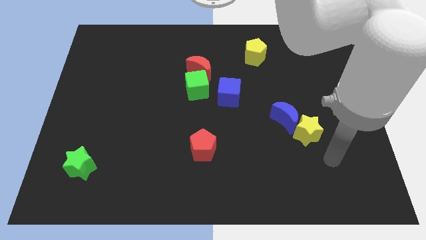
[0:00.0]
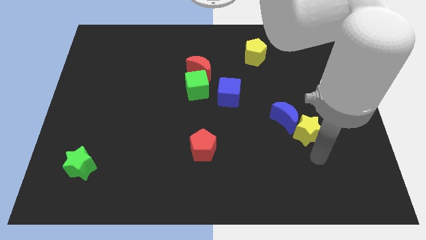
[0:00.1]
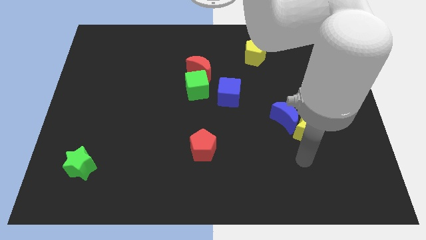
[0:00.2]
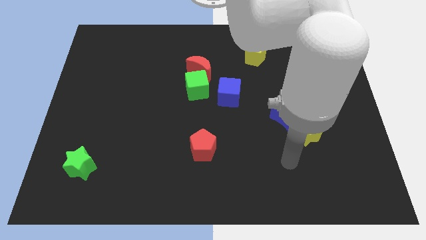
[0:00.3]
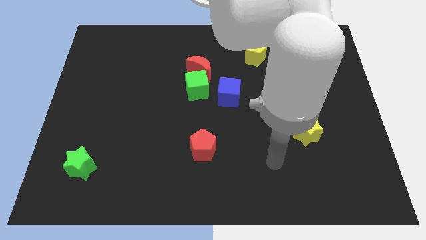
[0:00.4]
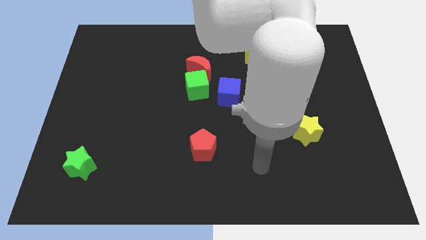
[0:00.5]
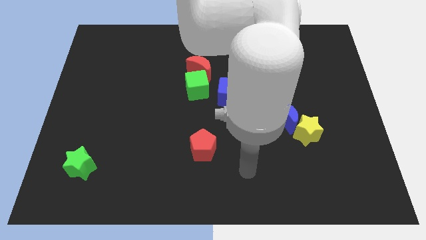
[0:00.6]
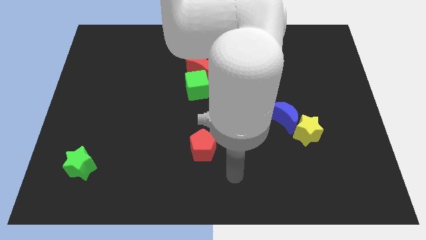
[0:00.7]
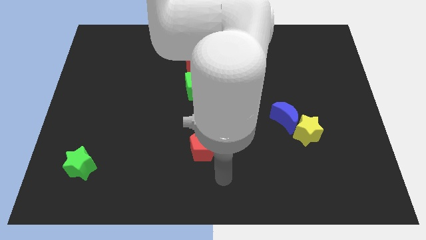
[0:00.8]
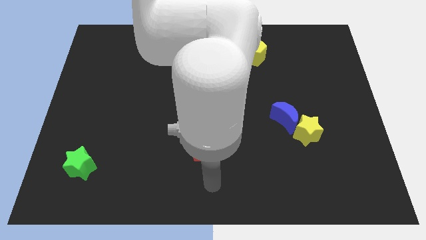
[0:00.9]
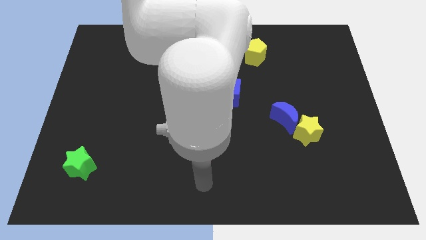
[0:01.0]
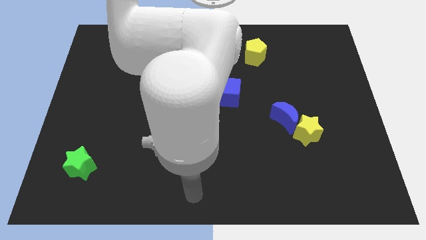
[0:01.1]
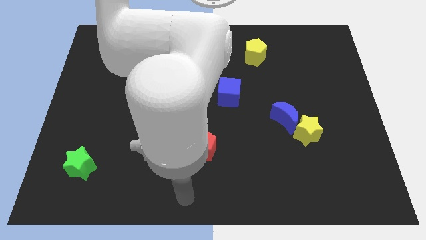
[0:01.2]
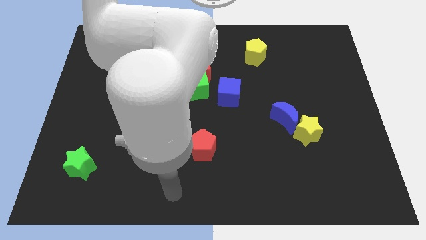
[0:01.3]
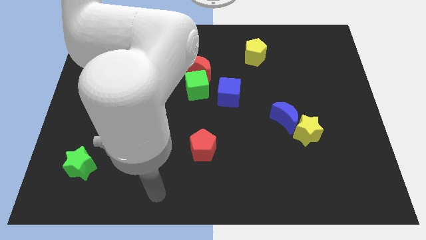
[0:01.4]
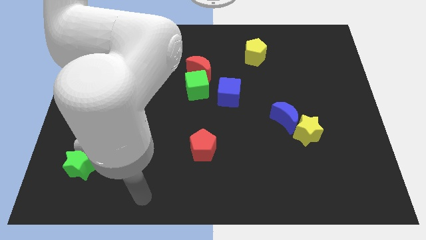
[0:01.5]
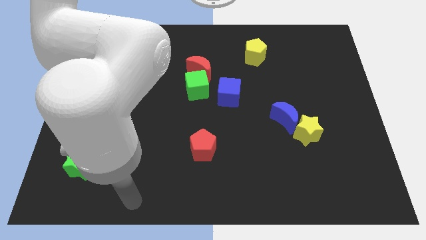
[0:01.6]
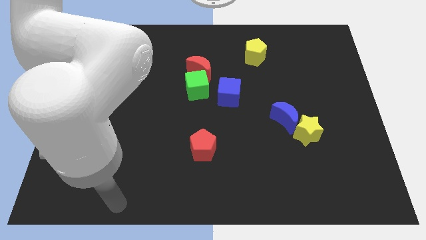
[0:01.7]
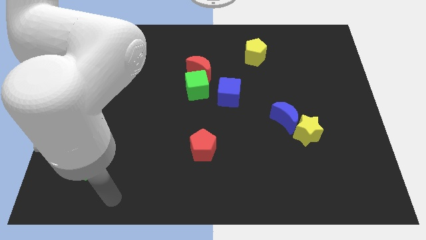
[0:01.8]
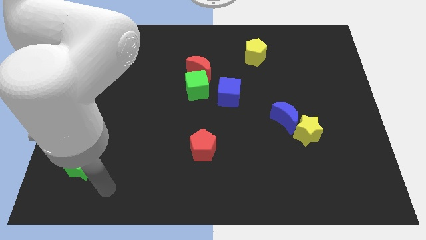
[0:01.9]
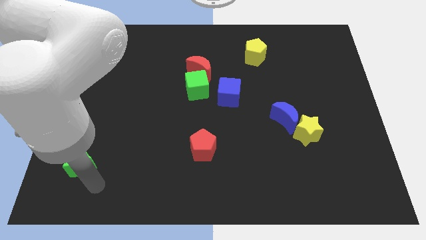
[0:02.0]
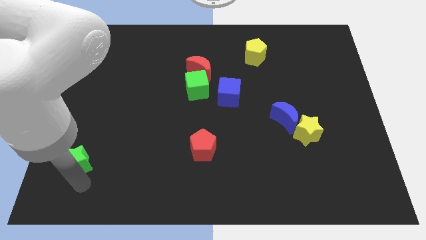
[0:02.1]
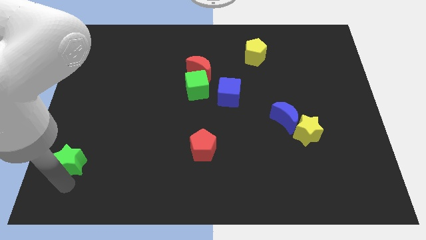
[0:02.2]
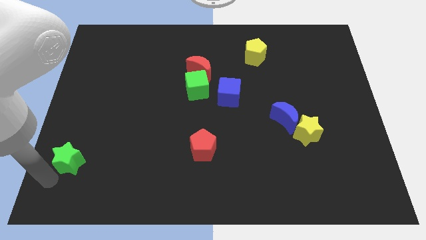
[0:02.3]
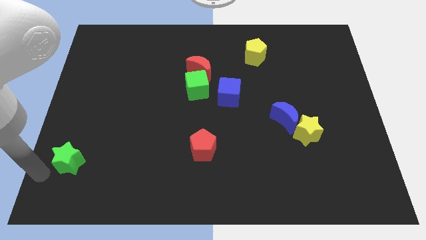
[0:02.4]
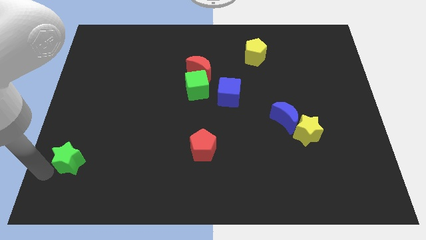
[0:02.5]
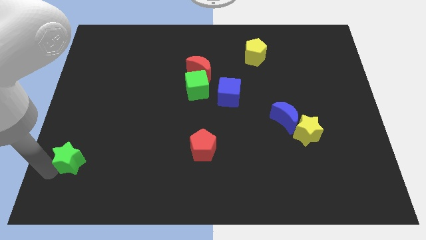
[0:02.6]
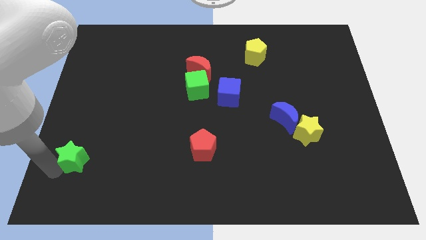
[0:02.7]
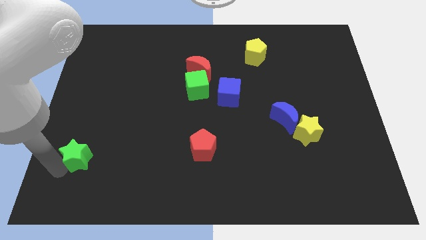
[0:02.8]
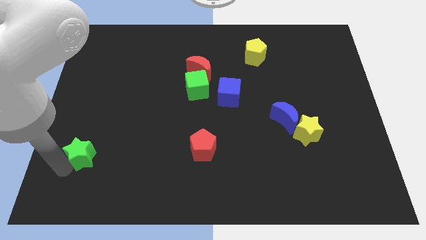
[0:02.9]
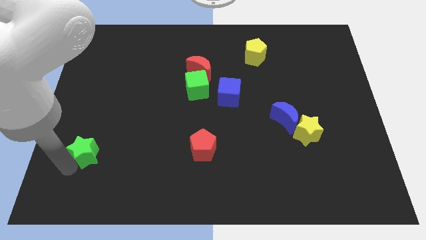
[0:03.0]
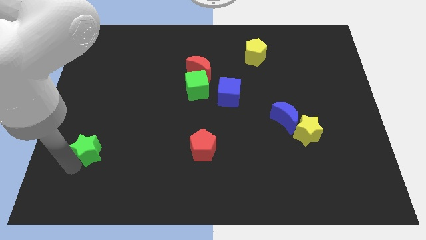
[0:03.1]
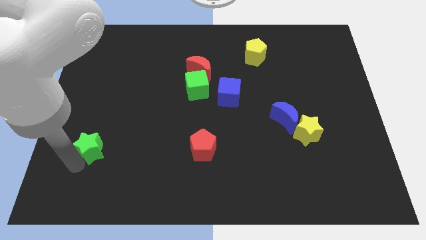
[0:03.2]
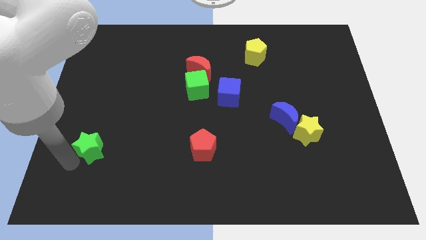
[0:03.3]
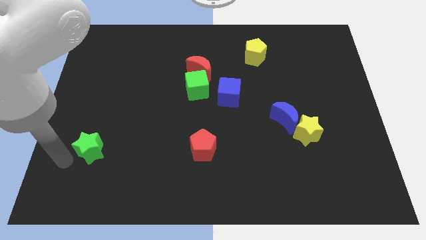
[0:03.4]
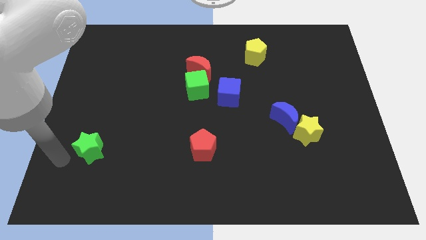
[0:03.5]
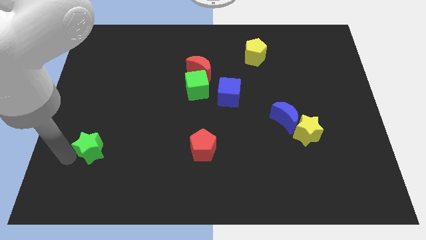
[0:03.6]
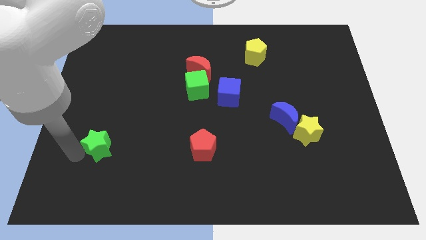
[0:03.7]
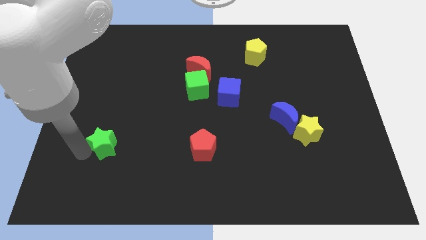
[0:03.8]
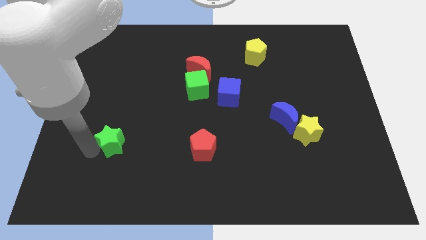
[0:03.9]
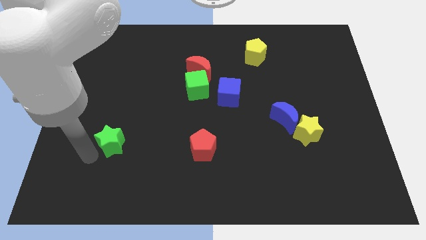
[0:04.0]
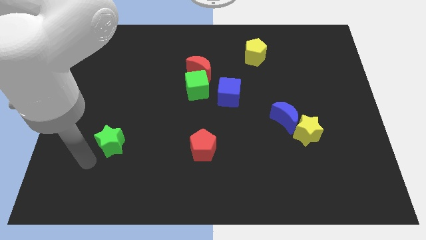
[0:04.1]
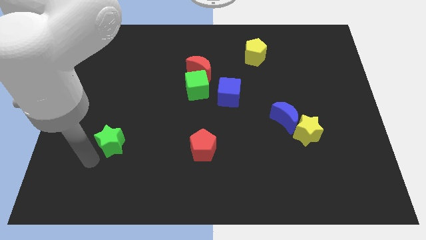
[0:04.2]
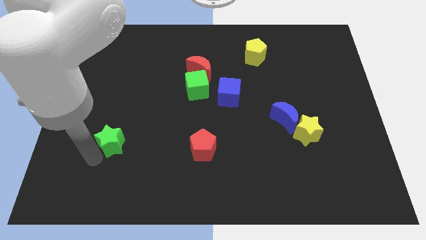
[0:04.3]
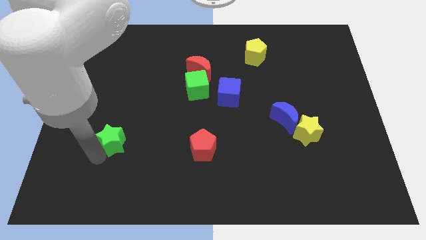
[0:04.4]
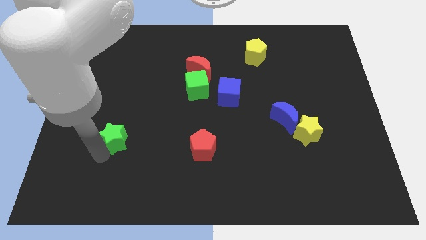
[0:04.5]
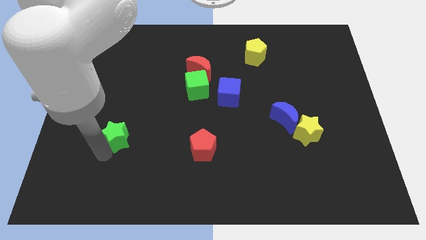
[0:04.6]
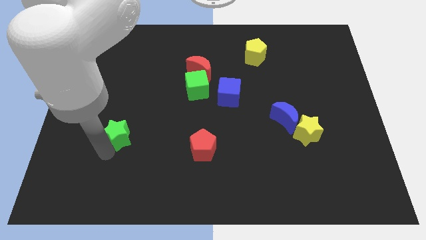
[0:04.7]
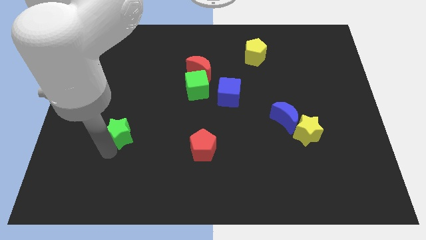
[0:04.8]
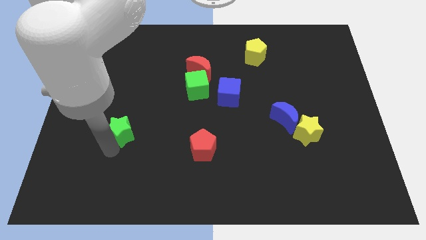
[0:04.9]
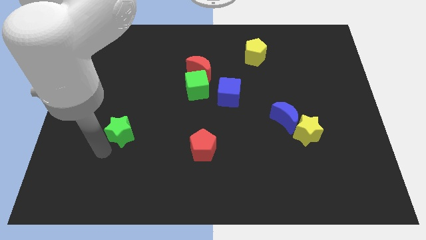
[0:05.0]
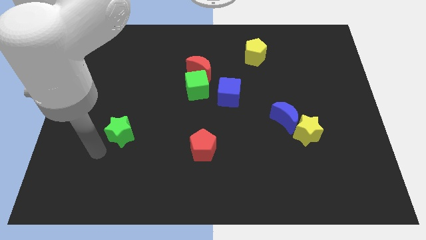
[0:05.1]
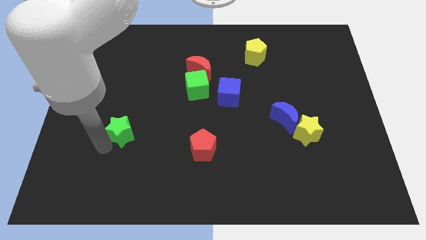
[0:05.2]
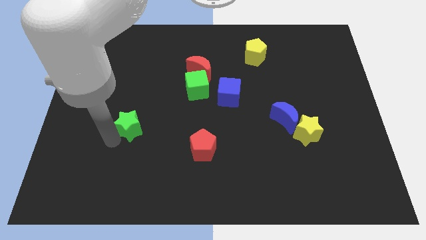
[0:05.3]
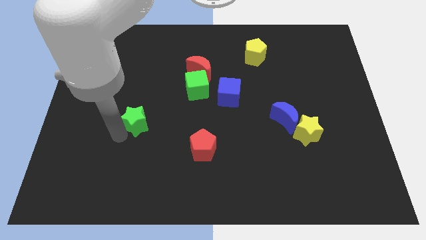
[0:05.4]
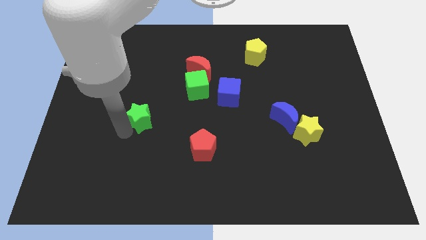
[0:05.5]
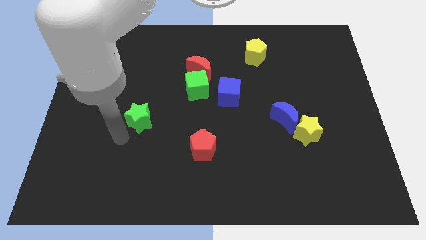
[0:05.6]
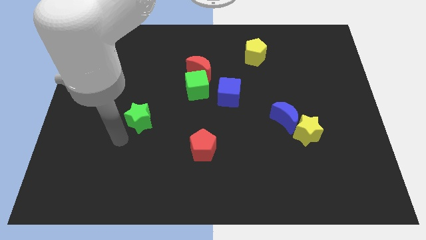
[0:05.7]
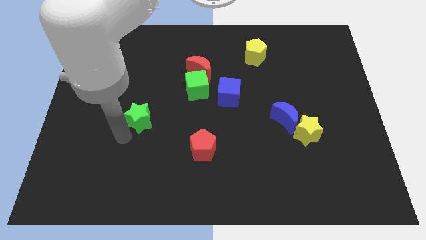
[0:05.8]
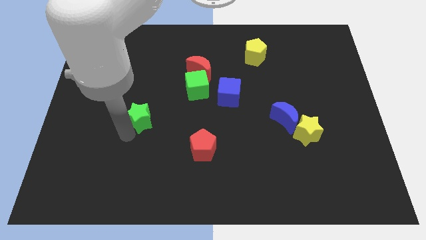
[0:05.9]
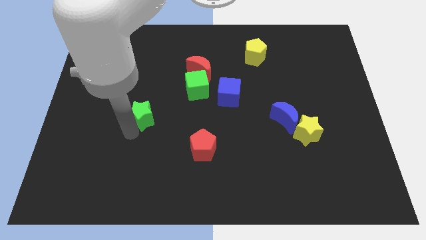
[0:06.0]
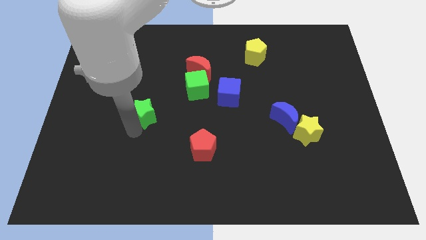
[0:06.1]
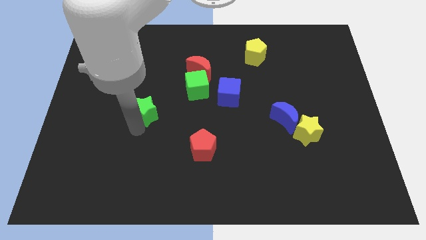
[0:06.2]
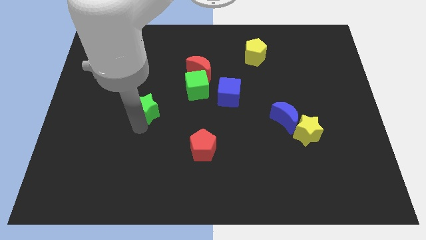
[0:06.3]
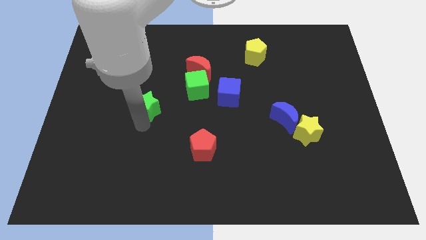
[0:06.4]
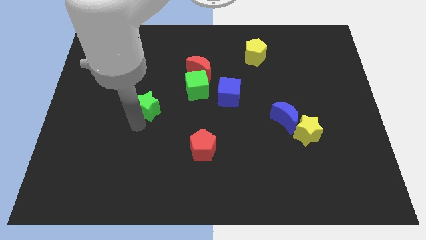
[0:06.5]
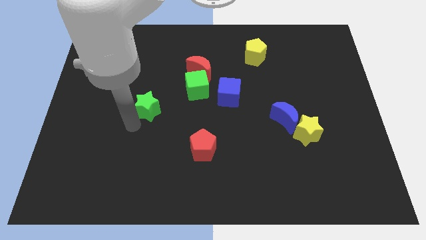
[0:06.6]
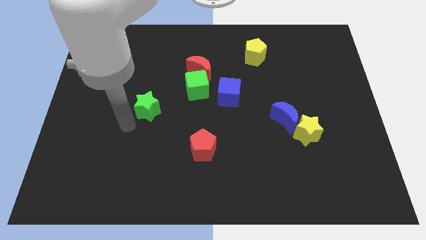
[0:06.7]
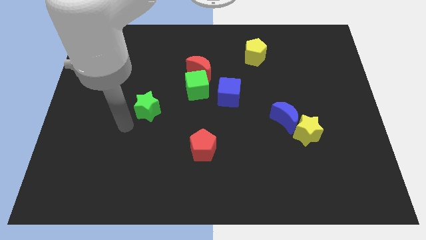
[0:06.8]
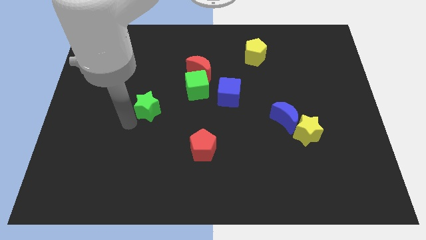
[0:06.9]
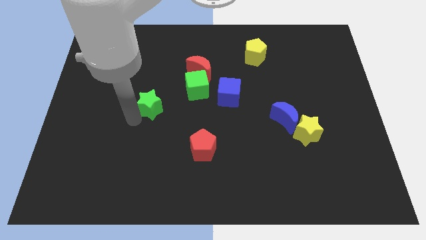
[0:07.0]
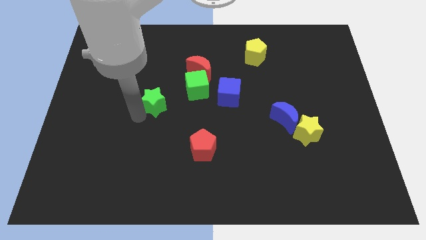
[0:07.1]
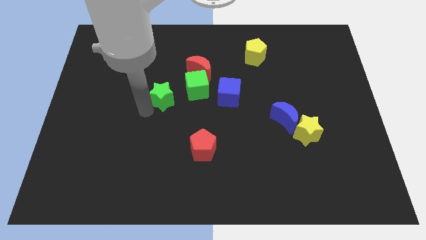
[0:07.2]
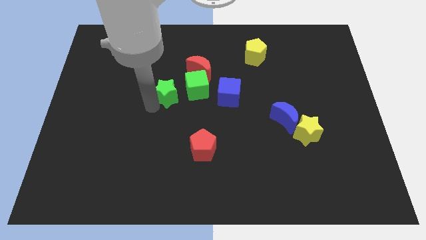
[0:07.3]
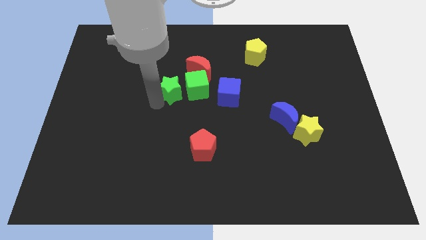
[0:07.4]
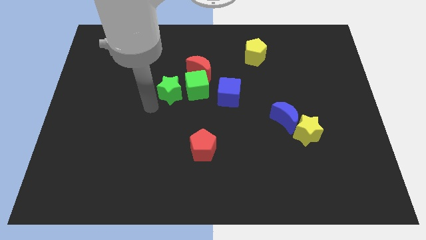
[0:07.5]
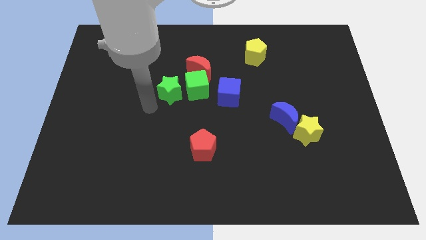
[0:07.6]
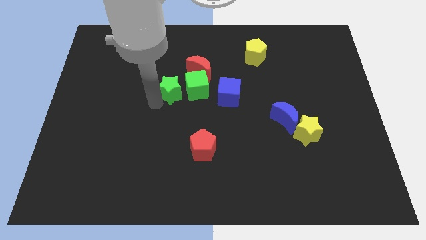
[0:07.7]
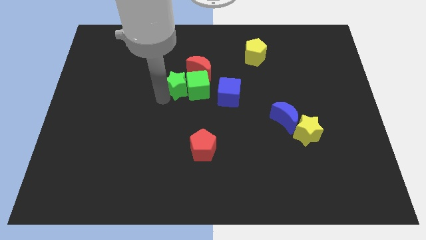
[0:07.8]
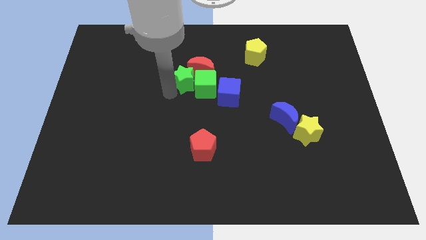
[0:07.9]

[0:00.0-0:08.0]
put the green star towards the red moon
